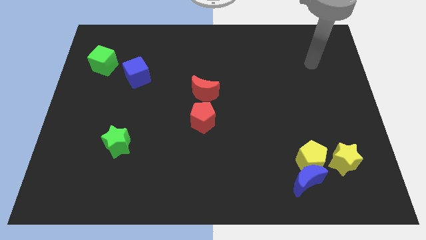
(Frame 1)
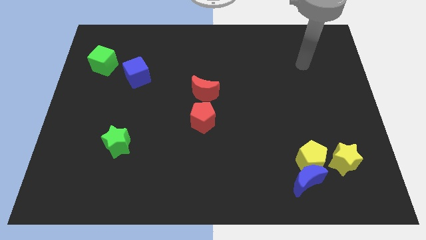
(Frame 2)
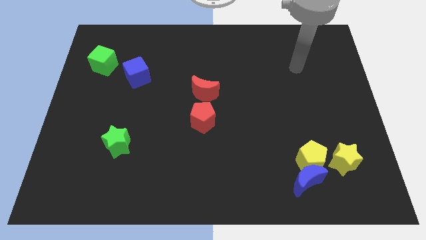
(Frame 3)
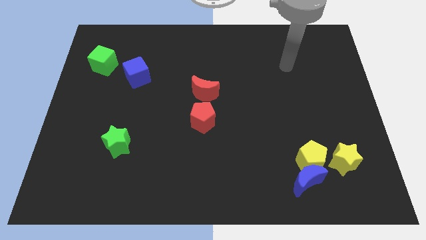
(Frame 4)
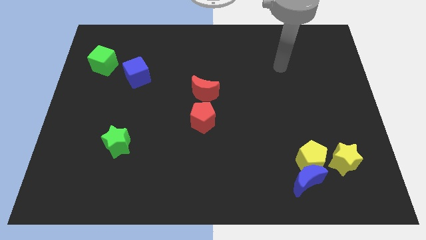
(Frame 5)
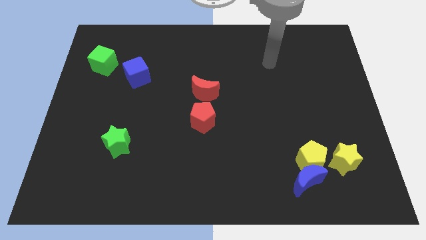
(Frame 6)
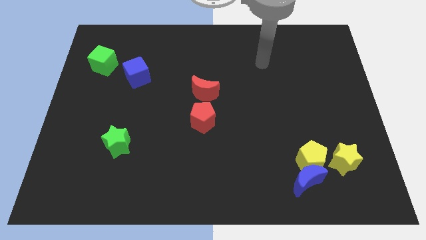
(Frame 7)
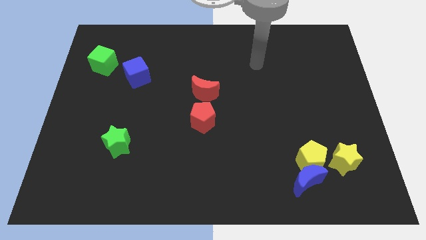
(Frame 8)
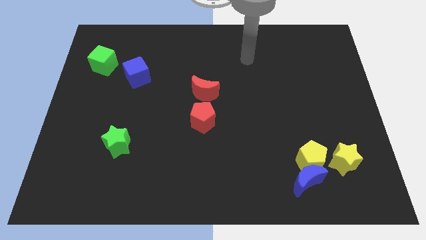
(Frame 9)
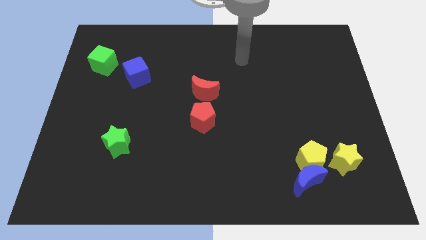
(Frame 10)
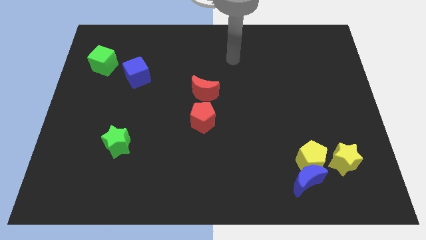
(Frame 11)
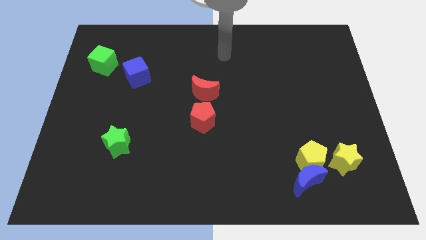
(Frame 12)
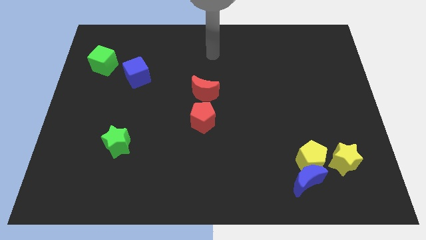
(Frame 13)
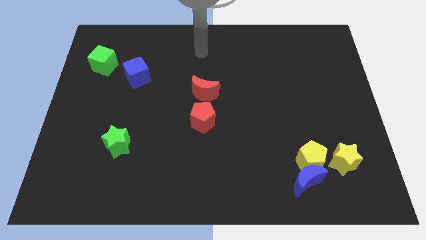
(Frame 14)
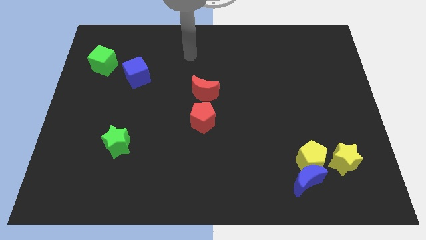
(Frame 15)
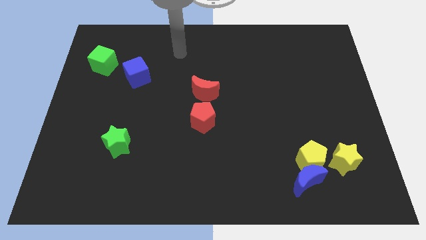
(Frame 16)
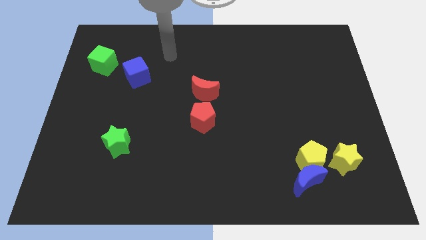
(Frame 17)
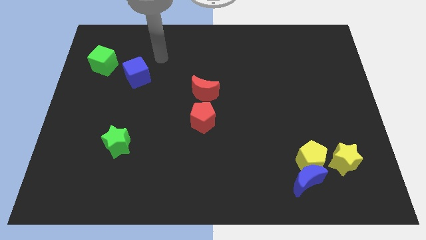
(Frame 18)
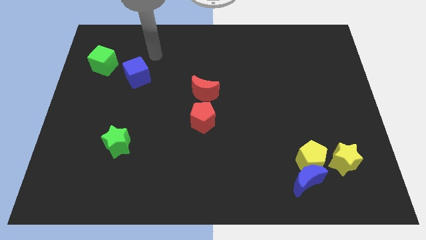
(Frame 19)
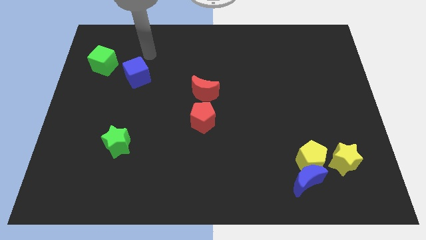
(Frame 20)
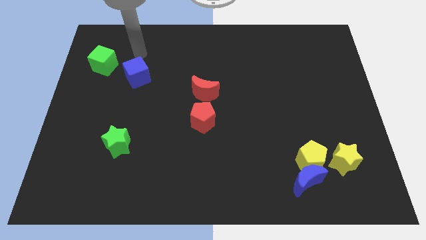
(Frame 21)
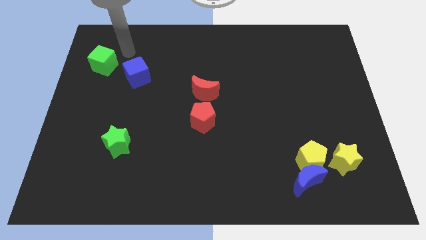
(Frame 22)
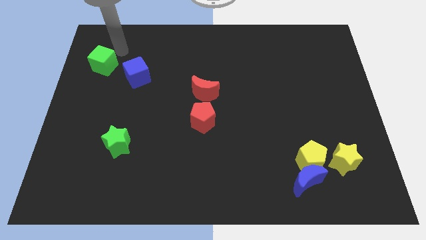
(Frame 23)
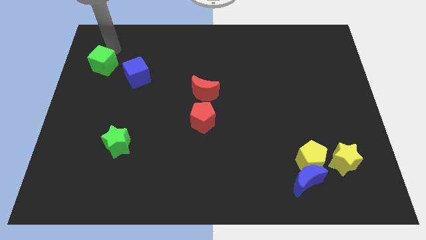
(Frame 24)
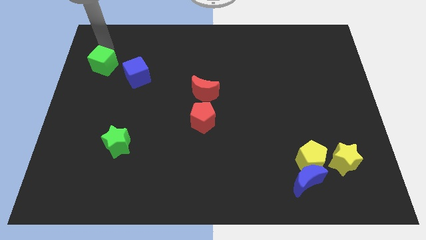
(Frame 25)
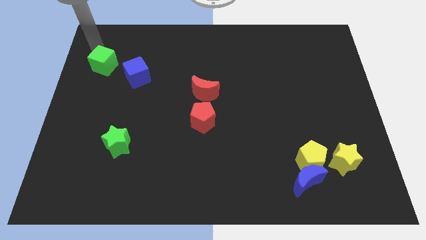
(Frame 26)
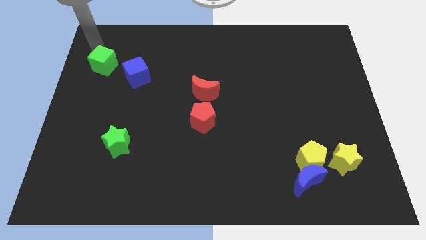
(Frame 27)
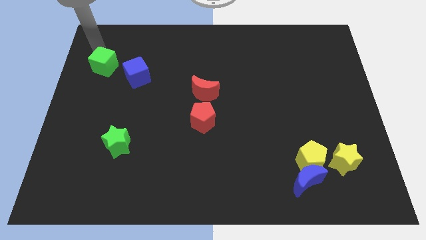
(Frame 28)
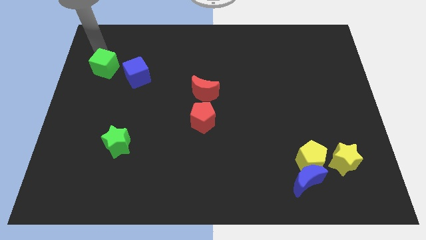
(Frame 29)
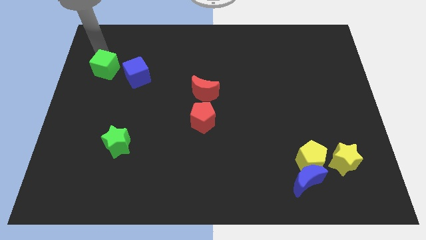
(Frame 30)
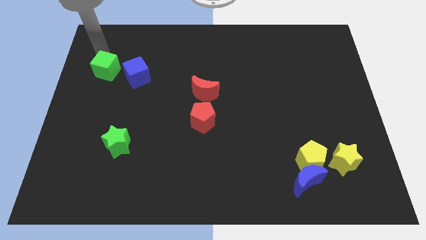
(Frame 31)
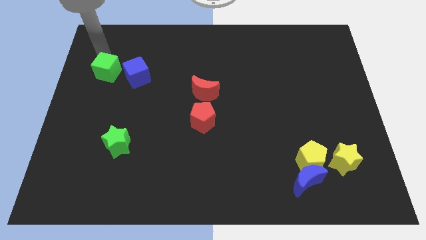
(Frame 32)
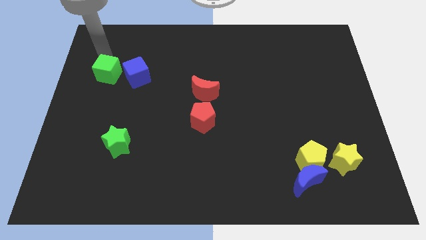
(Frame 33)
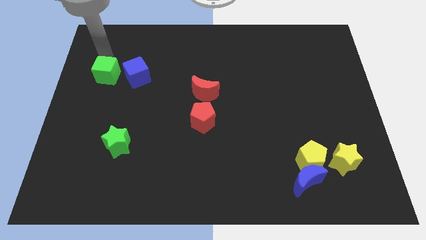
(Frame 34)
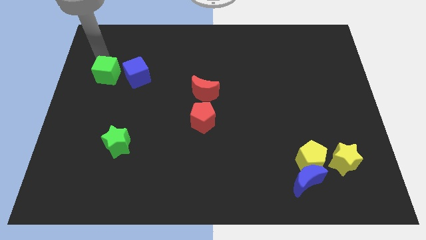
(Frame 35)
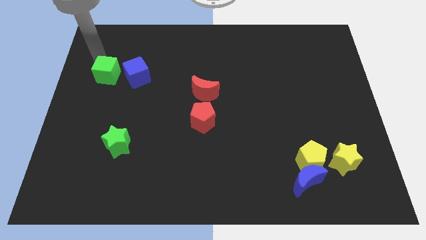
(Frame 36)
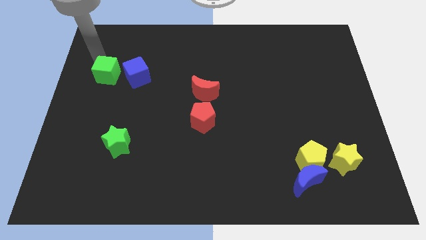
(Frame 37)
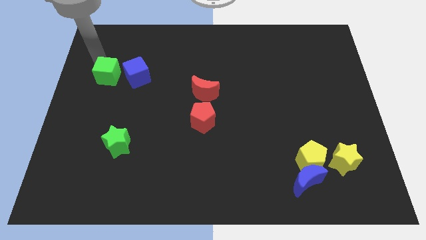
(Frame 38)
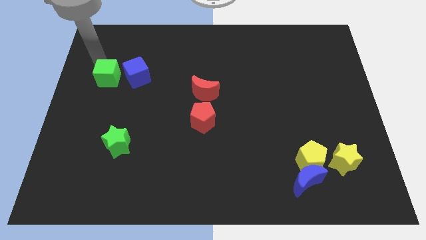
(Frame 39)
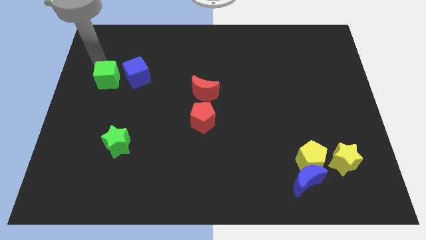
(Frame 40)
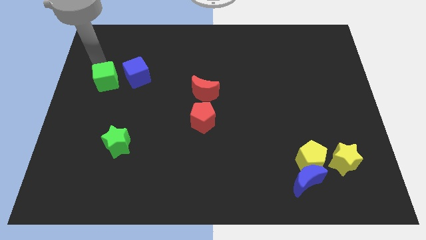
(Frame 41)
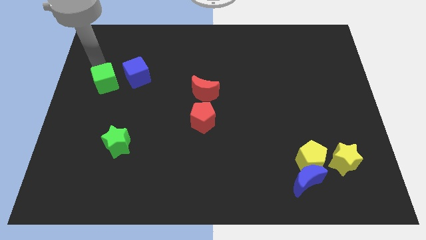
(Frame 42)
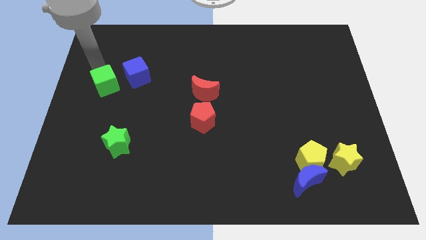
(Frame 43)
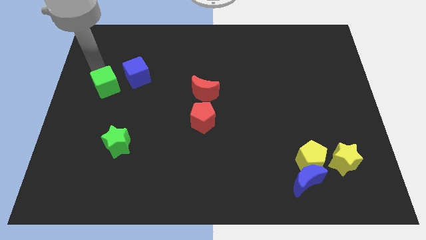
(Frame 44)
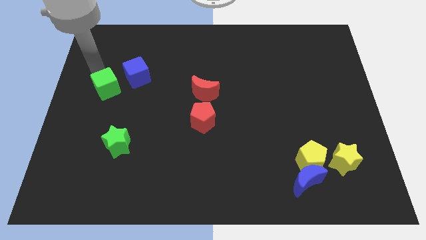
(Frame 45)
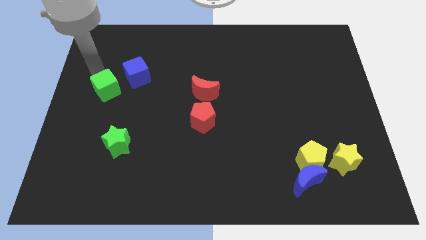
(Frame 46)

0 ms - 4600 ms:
move the green cube slightly diagonally downwards and right

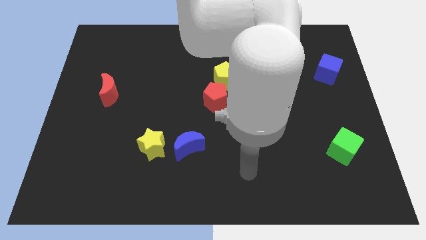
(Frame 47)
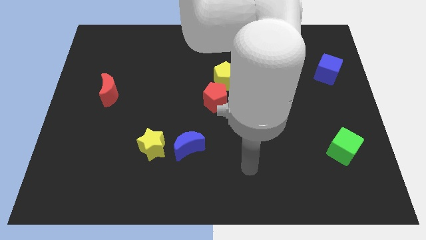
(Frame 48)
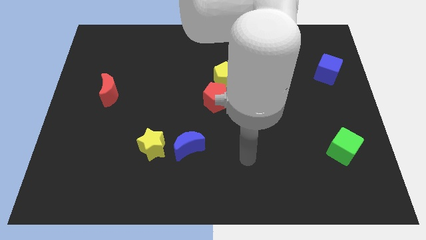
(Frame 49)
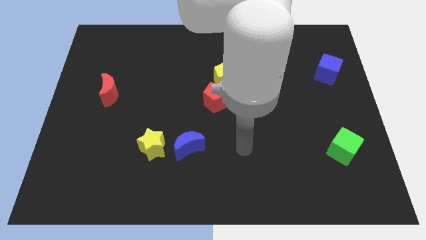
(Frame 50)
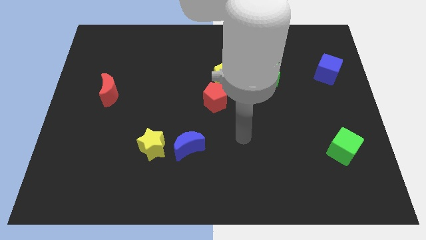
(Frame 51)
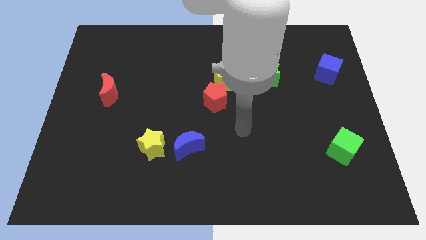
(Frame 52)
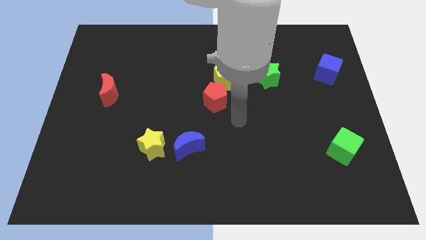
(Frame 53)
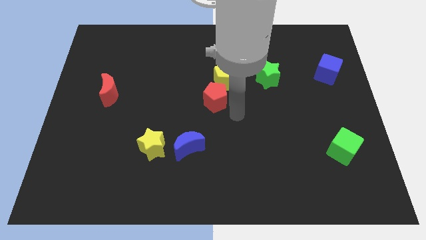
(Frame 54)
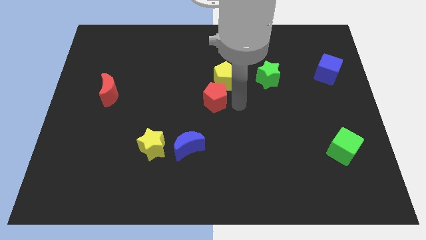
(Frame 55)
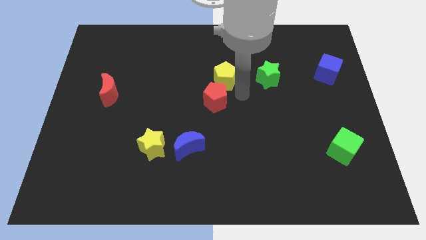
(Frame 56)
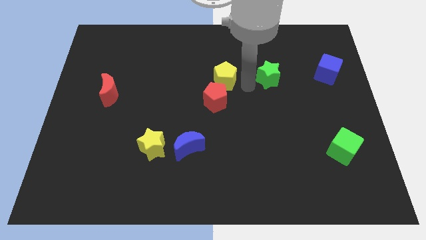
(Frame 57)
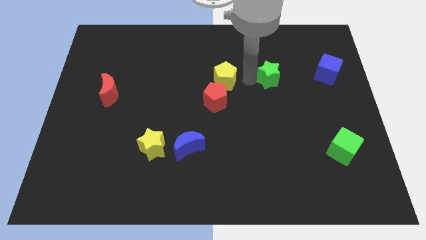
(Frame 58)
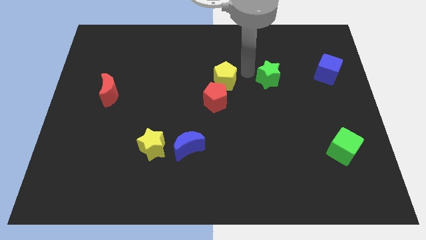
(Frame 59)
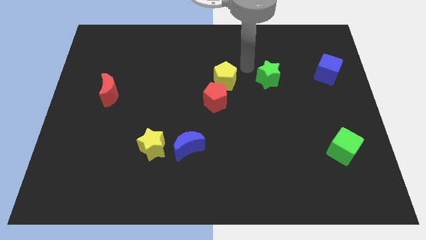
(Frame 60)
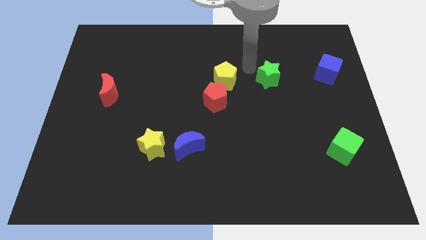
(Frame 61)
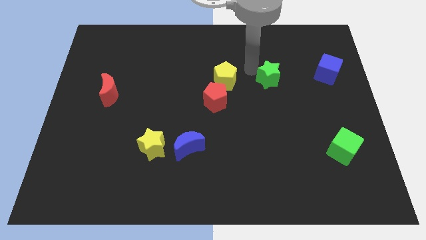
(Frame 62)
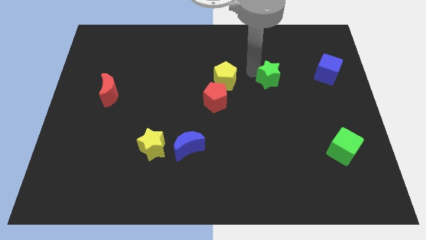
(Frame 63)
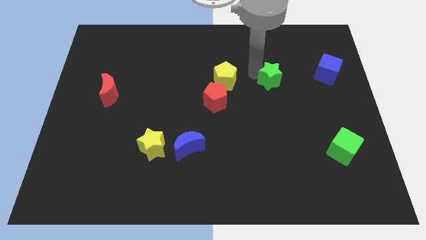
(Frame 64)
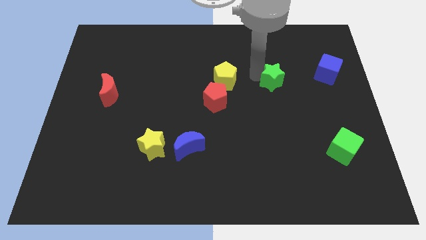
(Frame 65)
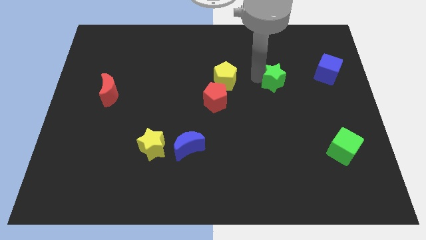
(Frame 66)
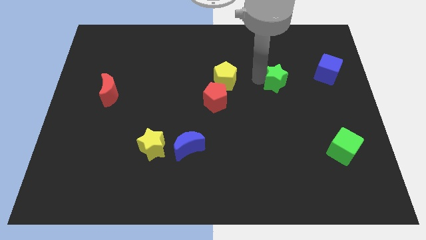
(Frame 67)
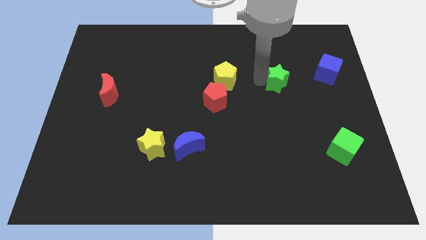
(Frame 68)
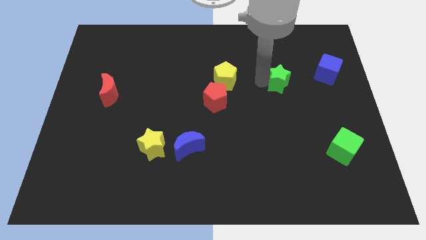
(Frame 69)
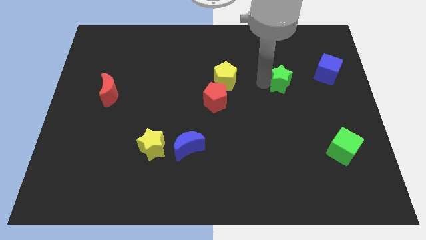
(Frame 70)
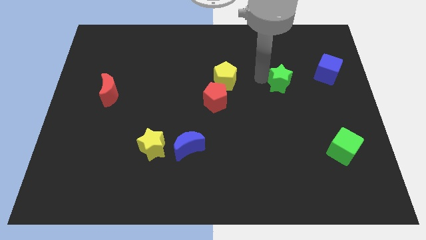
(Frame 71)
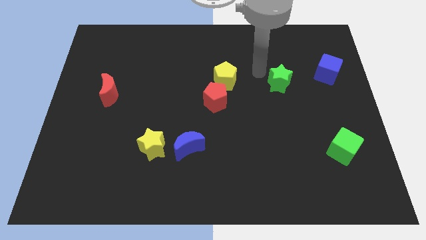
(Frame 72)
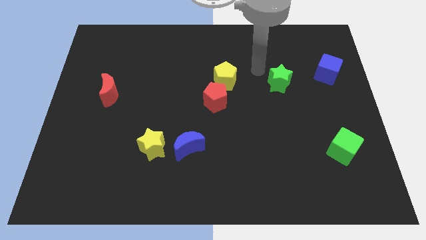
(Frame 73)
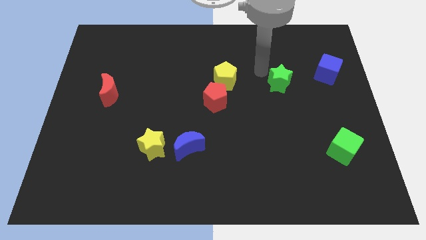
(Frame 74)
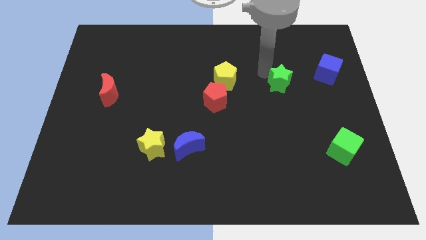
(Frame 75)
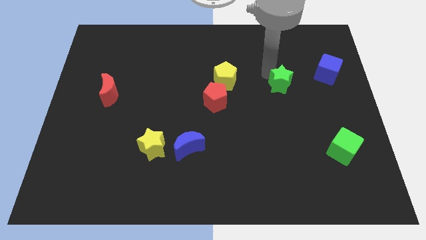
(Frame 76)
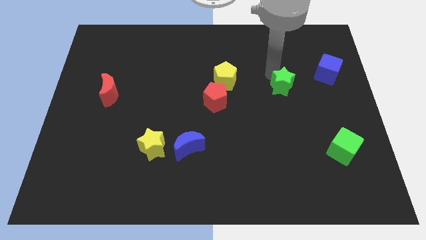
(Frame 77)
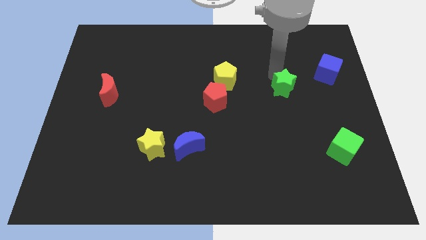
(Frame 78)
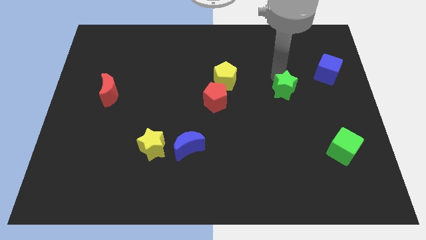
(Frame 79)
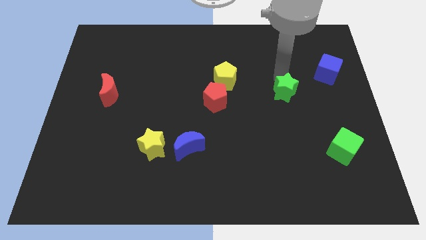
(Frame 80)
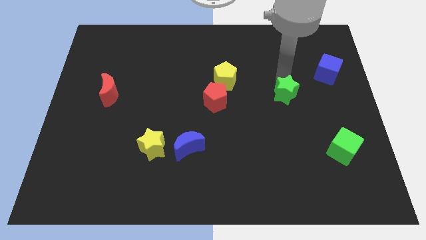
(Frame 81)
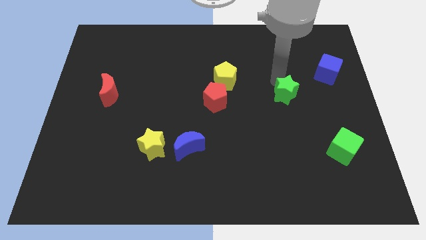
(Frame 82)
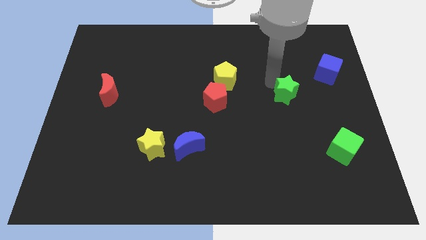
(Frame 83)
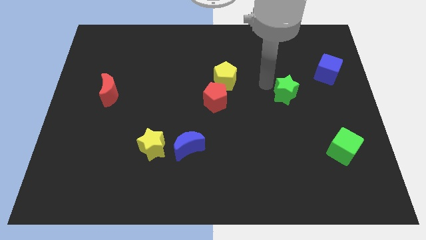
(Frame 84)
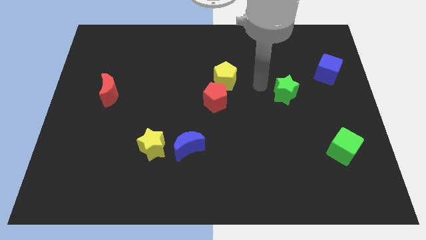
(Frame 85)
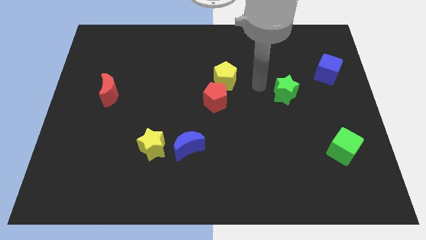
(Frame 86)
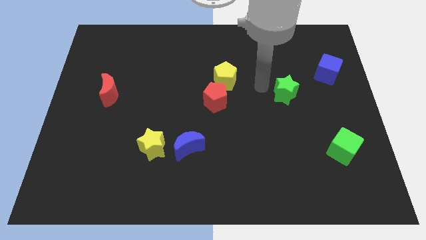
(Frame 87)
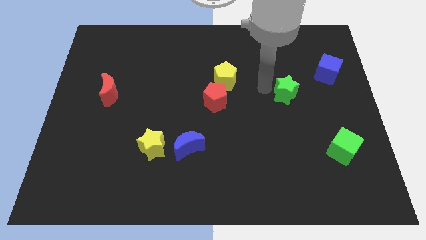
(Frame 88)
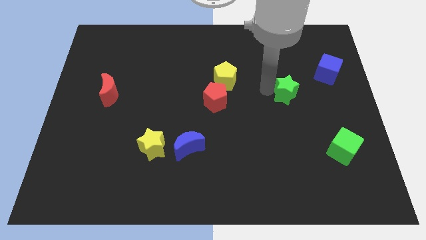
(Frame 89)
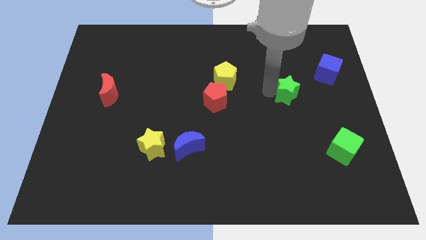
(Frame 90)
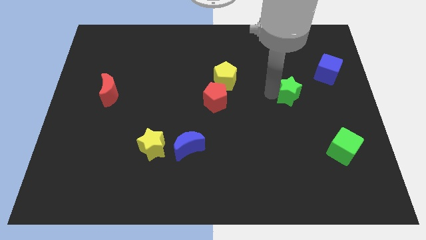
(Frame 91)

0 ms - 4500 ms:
move the green star a bit downwards and then to the right
